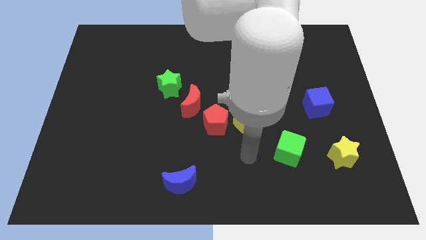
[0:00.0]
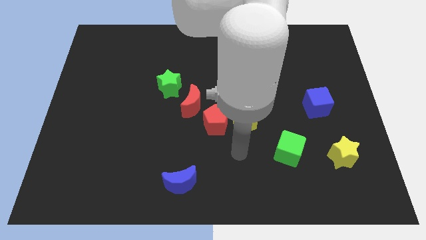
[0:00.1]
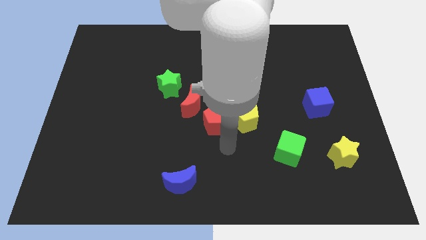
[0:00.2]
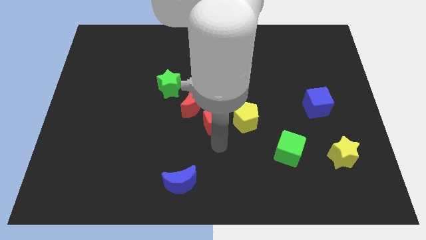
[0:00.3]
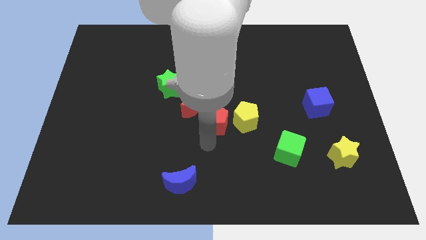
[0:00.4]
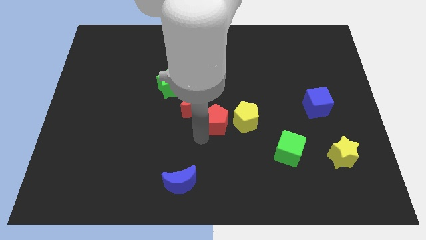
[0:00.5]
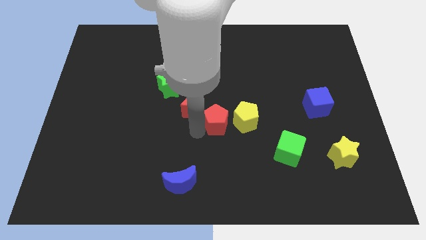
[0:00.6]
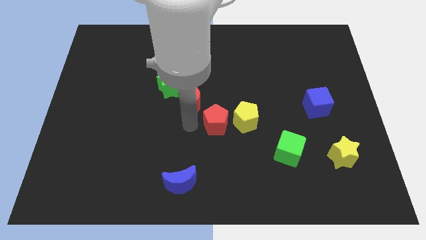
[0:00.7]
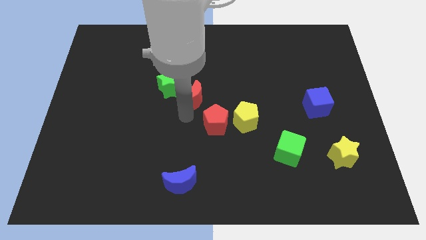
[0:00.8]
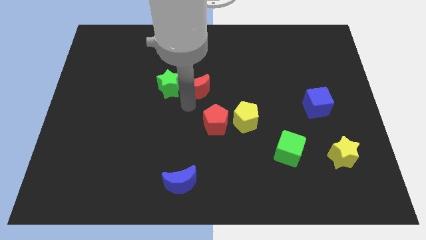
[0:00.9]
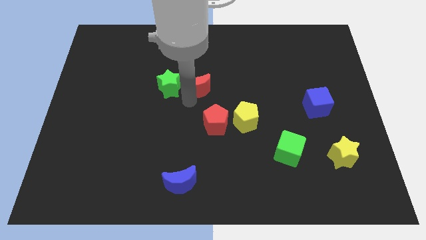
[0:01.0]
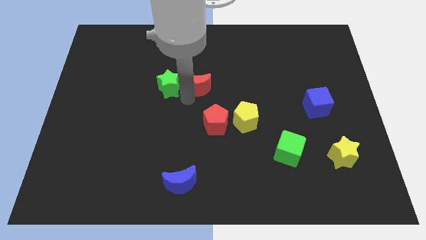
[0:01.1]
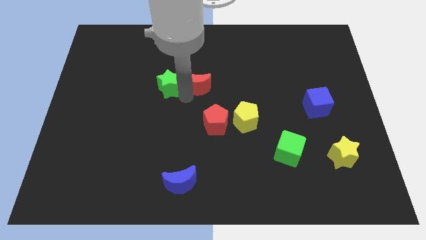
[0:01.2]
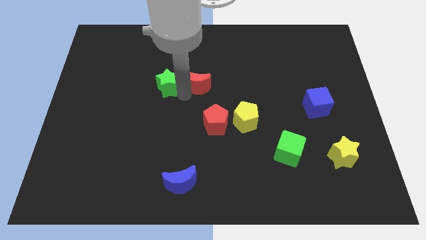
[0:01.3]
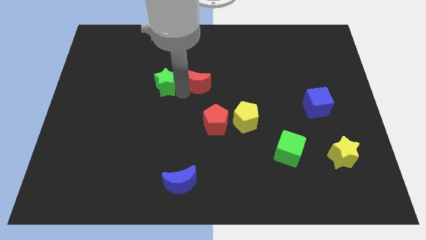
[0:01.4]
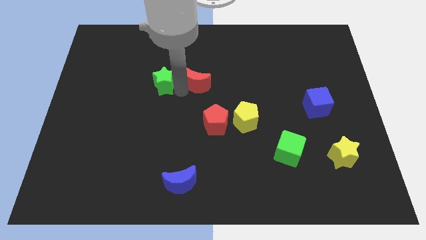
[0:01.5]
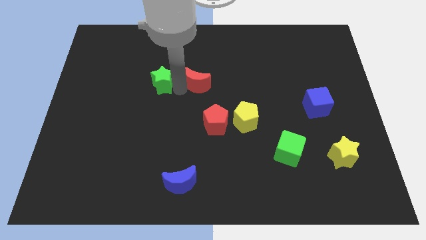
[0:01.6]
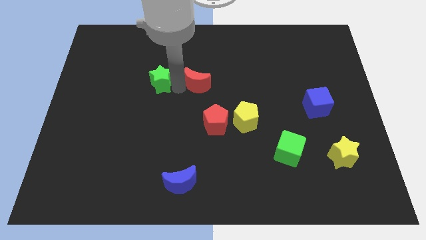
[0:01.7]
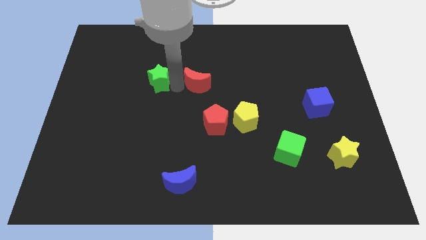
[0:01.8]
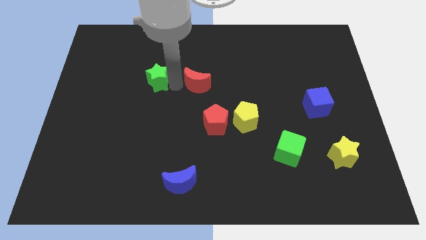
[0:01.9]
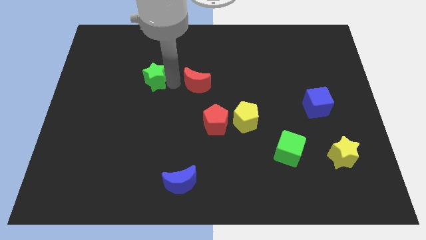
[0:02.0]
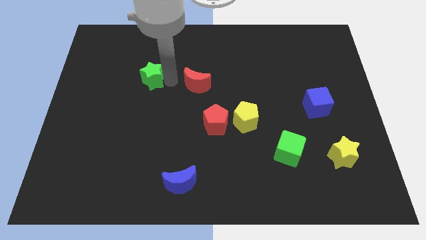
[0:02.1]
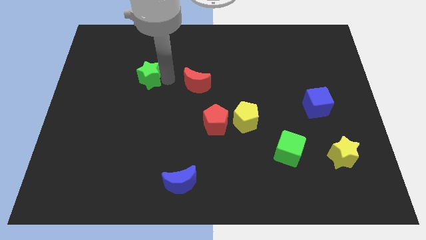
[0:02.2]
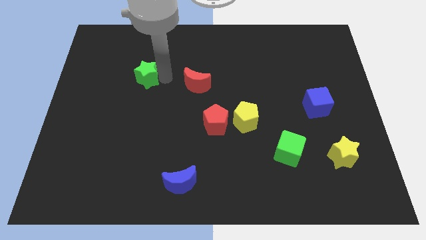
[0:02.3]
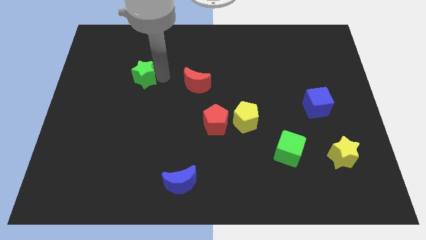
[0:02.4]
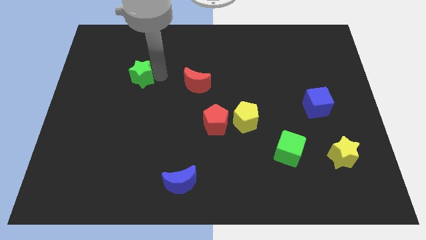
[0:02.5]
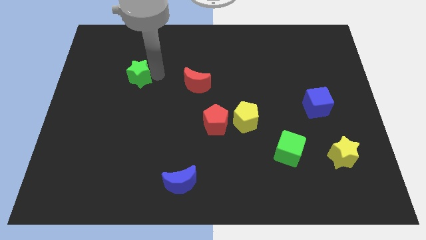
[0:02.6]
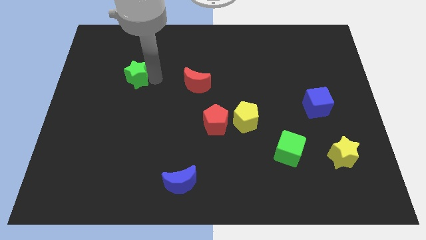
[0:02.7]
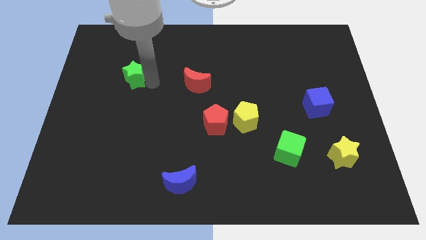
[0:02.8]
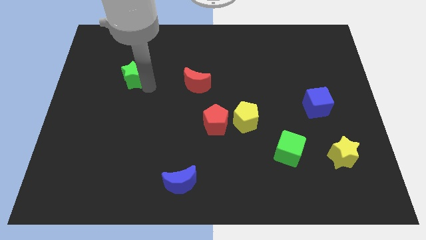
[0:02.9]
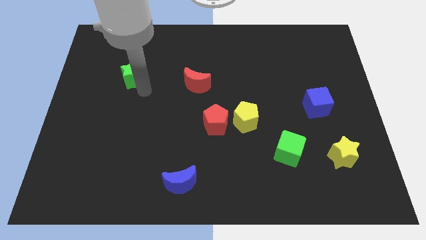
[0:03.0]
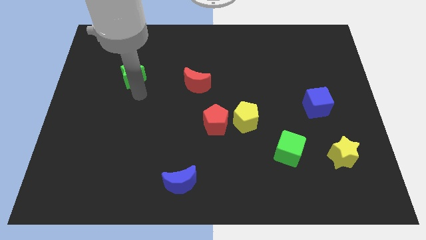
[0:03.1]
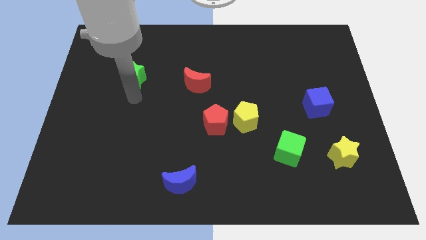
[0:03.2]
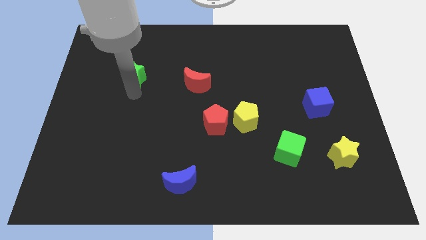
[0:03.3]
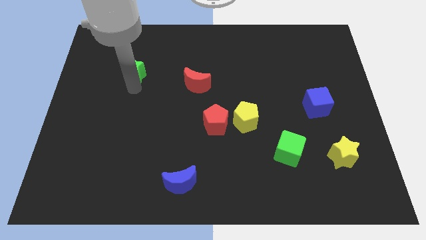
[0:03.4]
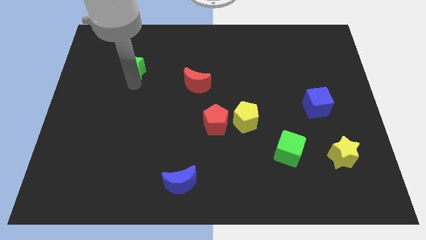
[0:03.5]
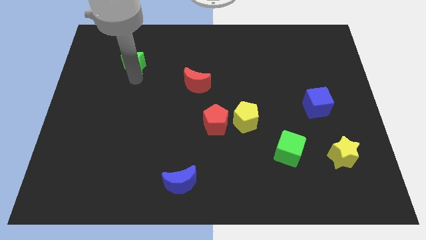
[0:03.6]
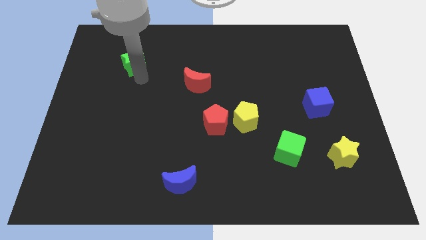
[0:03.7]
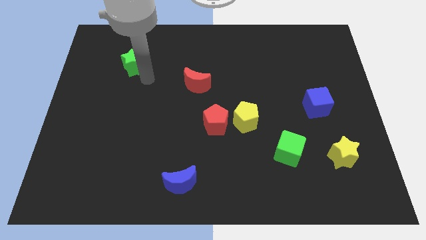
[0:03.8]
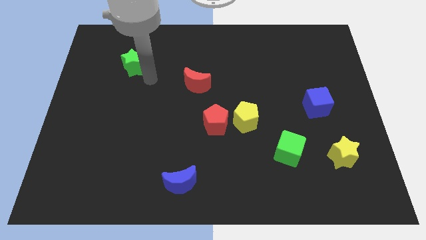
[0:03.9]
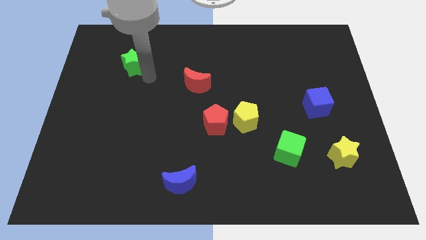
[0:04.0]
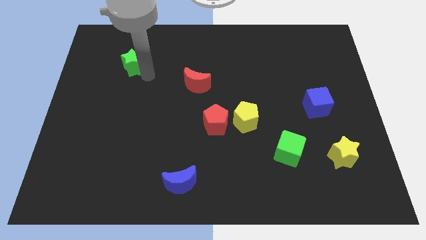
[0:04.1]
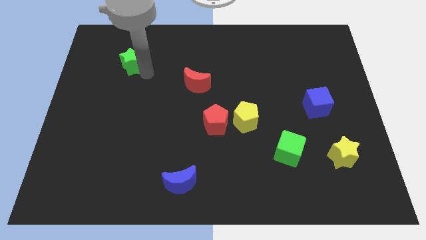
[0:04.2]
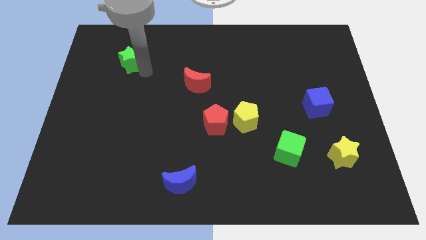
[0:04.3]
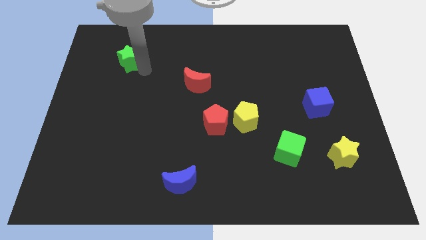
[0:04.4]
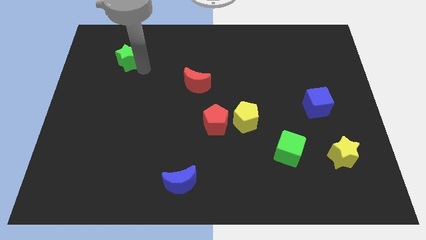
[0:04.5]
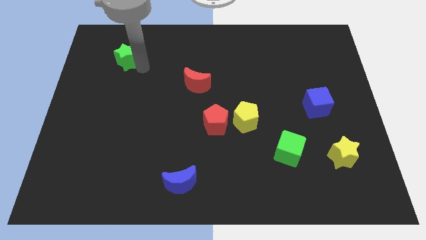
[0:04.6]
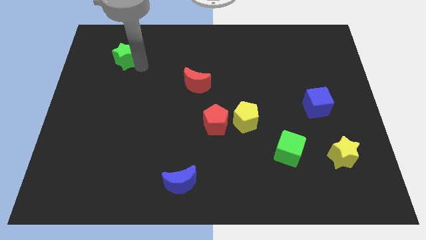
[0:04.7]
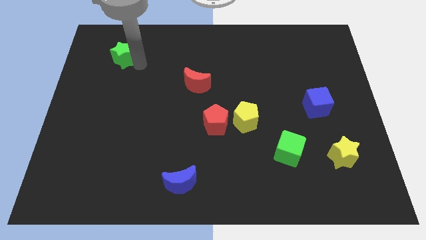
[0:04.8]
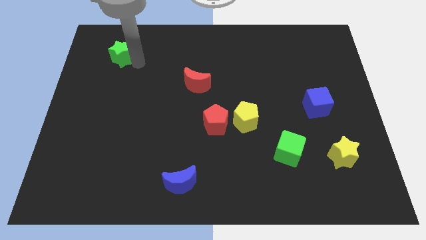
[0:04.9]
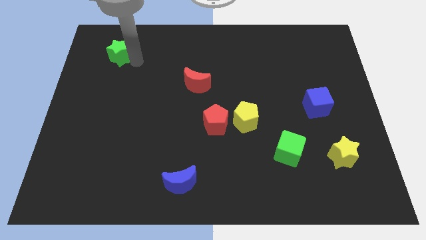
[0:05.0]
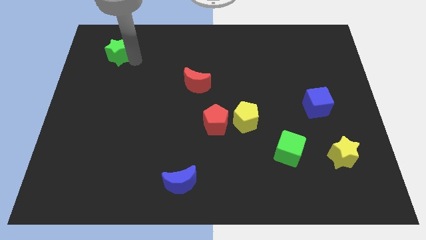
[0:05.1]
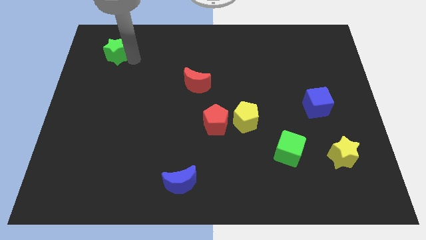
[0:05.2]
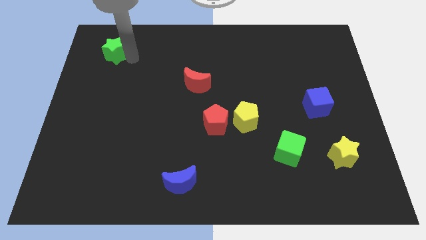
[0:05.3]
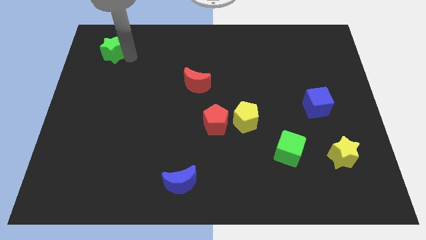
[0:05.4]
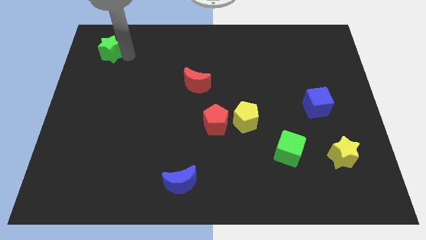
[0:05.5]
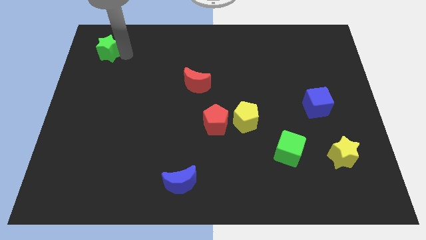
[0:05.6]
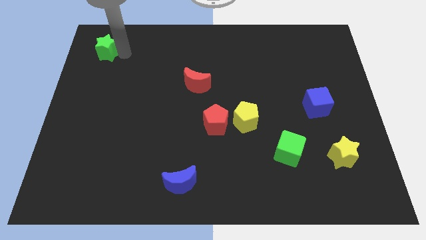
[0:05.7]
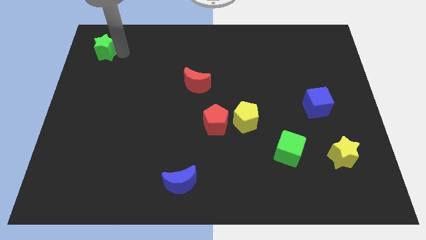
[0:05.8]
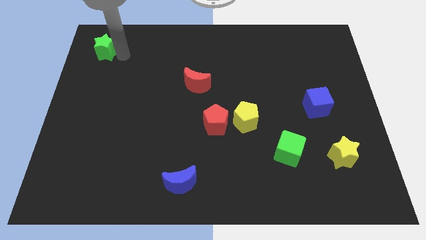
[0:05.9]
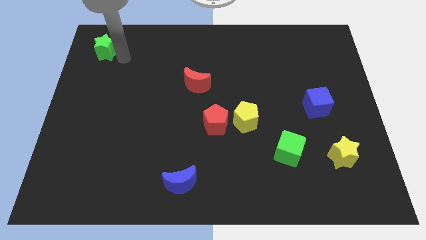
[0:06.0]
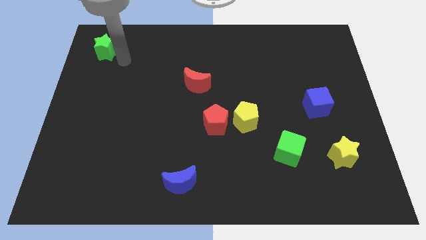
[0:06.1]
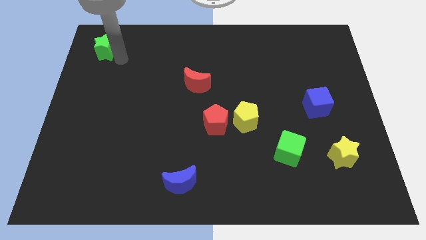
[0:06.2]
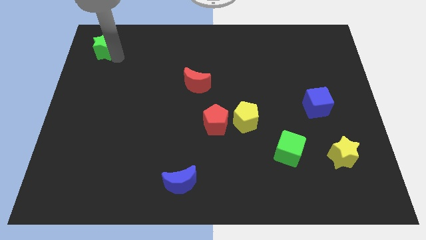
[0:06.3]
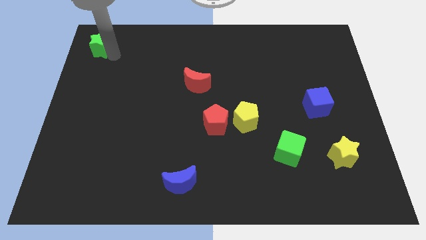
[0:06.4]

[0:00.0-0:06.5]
push the green star to the upper left corner
